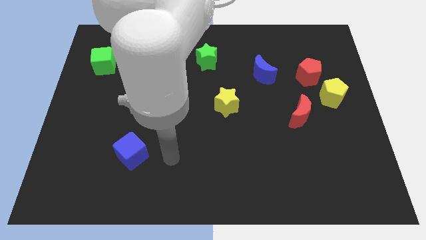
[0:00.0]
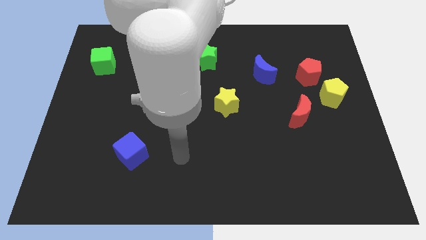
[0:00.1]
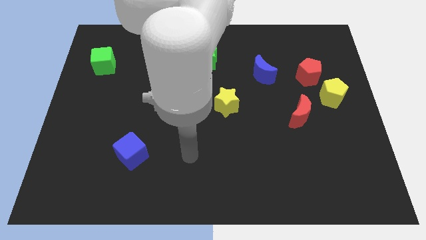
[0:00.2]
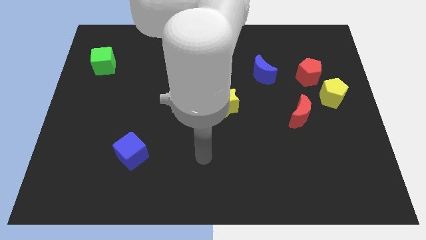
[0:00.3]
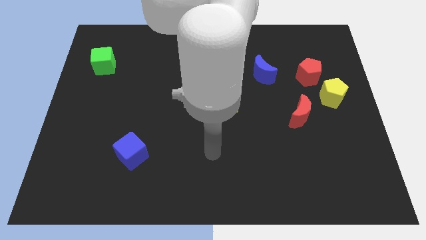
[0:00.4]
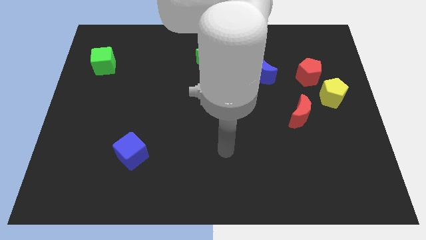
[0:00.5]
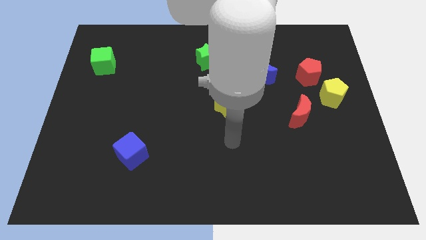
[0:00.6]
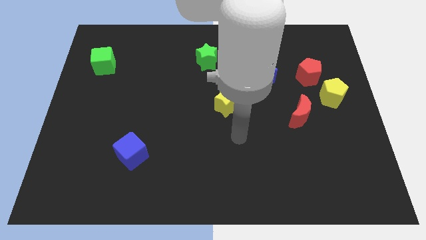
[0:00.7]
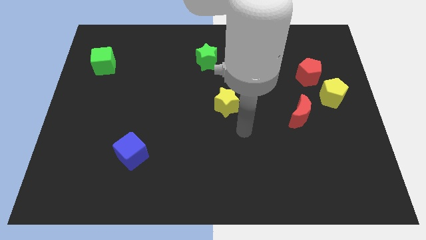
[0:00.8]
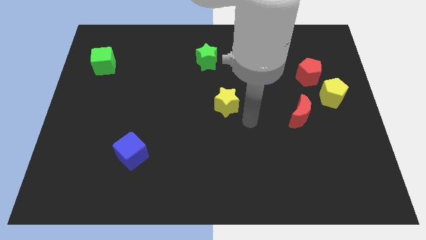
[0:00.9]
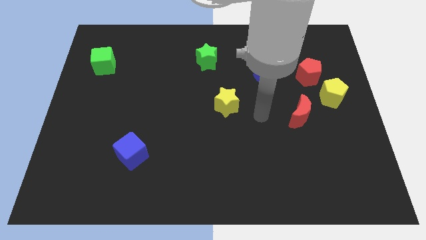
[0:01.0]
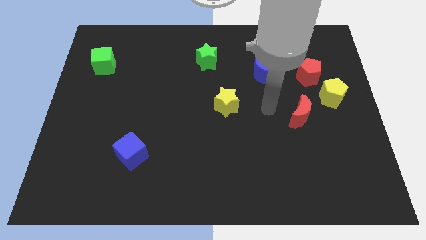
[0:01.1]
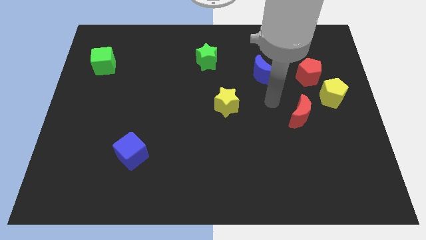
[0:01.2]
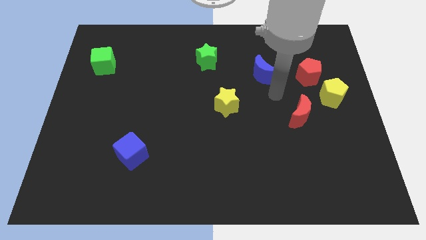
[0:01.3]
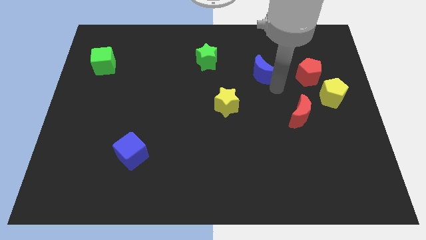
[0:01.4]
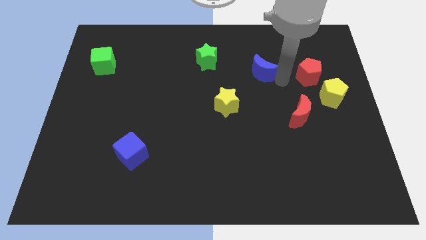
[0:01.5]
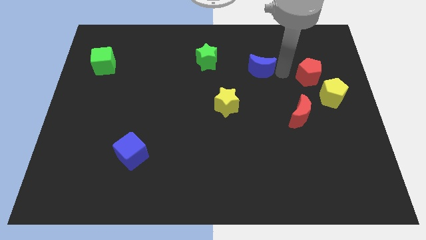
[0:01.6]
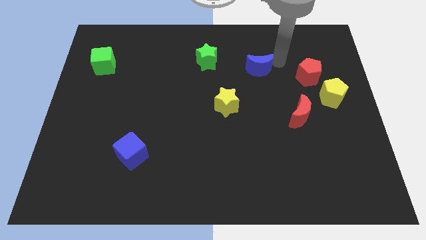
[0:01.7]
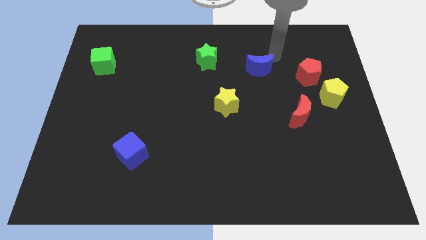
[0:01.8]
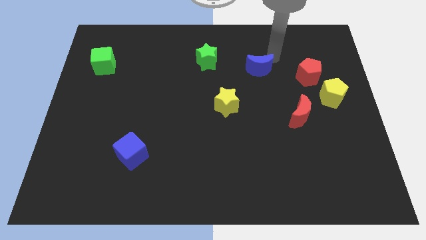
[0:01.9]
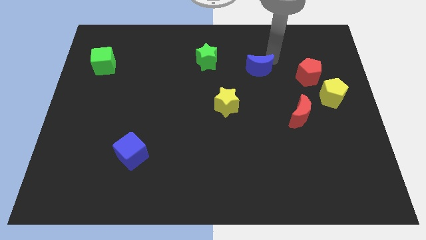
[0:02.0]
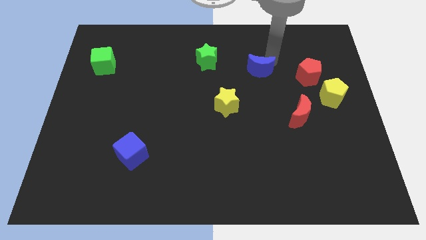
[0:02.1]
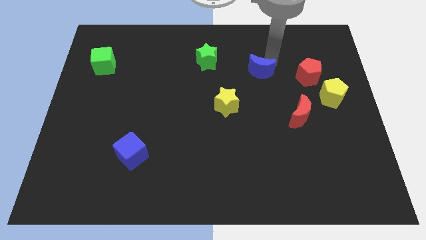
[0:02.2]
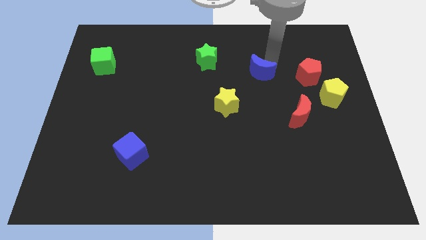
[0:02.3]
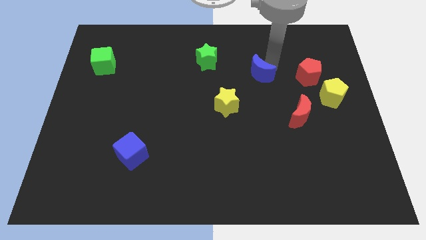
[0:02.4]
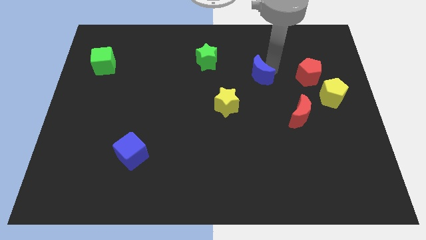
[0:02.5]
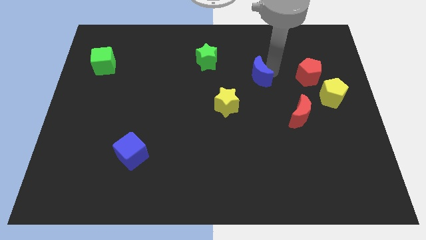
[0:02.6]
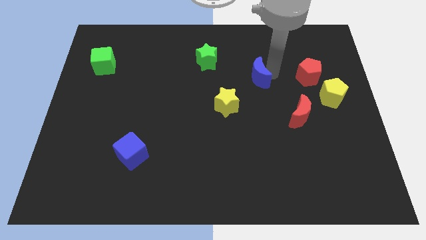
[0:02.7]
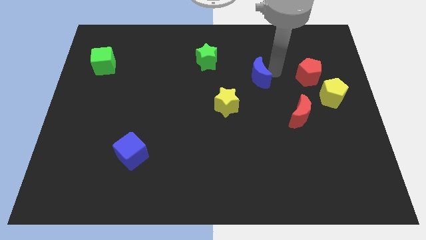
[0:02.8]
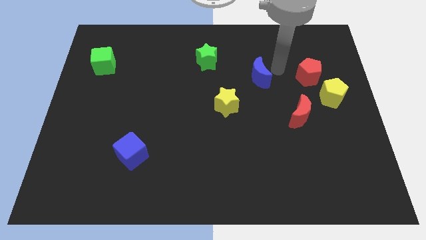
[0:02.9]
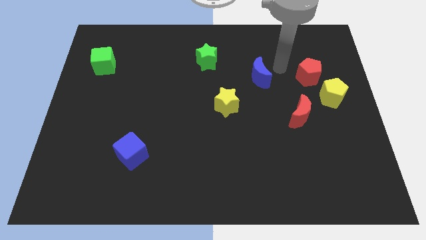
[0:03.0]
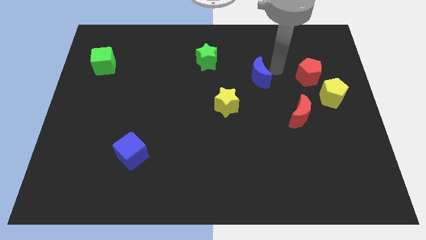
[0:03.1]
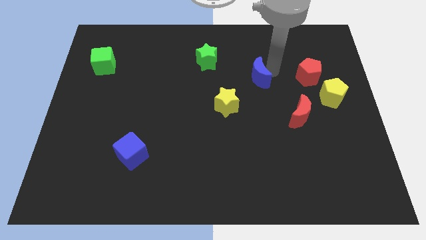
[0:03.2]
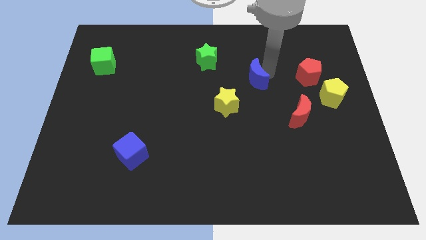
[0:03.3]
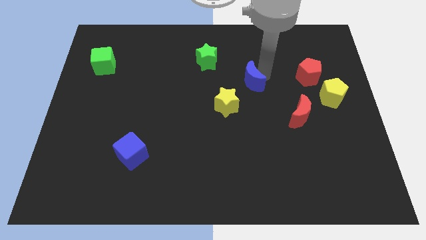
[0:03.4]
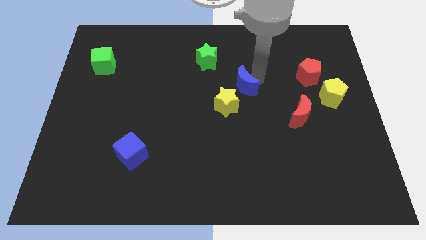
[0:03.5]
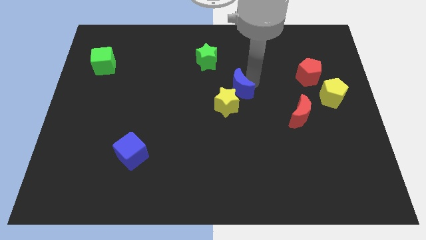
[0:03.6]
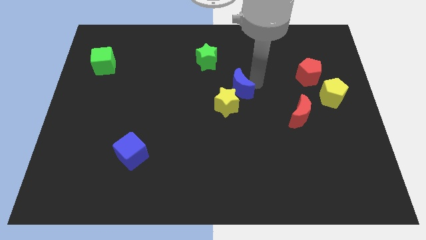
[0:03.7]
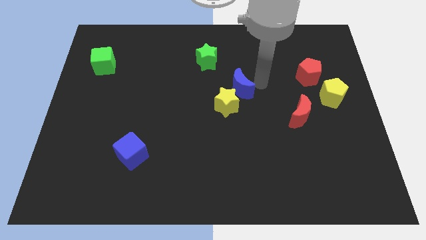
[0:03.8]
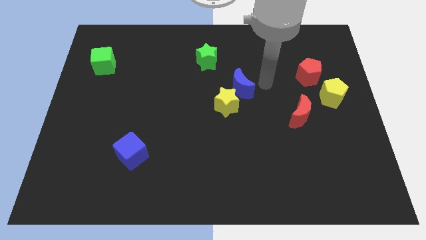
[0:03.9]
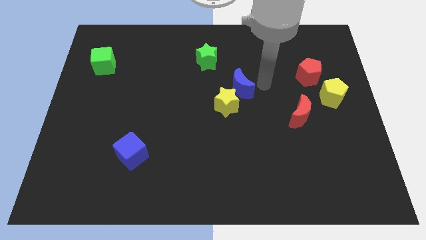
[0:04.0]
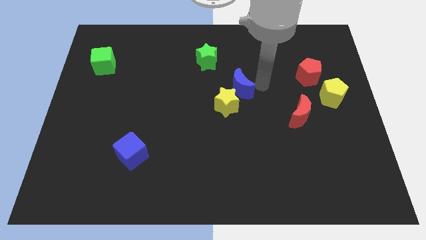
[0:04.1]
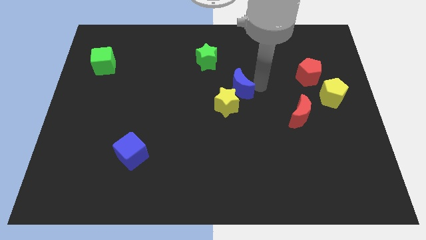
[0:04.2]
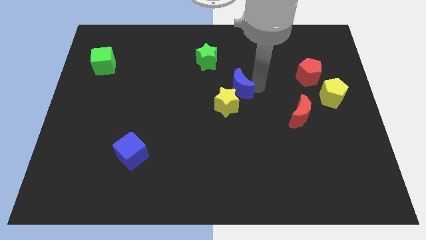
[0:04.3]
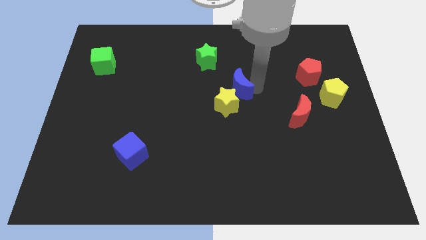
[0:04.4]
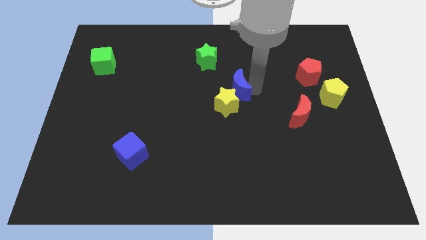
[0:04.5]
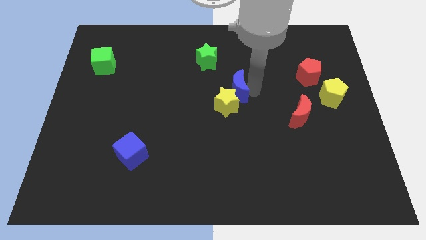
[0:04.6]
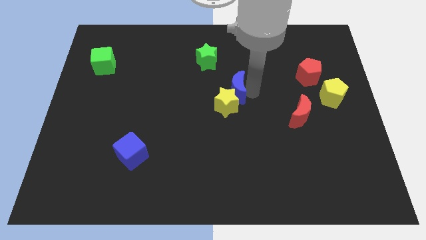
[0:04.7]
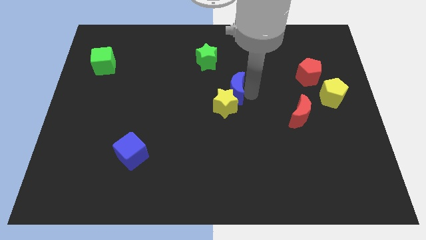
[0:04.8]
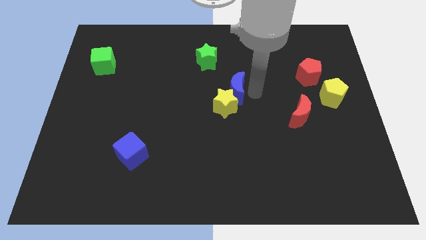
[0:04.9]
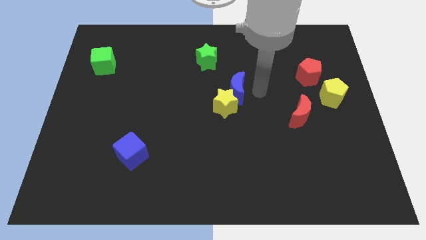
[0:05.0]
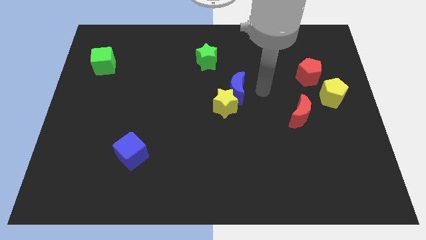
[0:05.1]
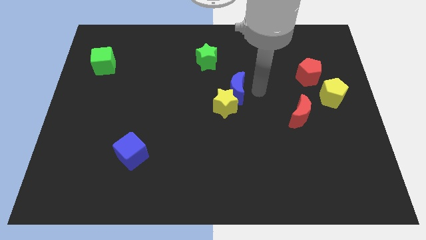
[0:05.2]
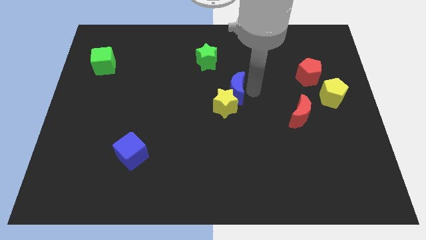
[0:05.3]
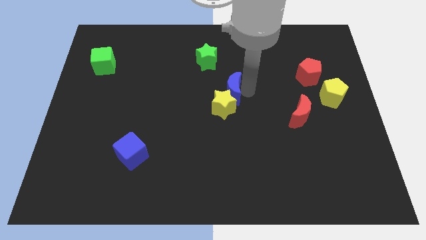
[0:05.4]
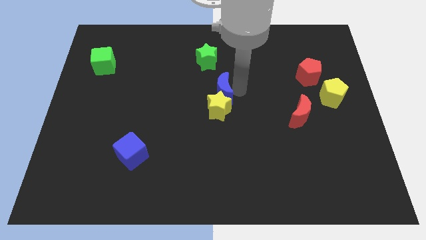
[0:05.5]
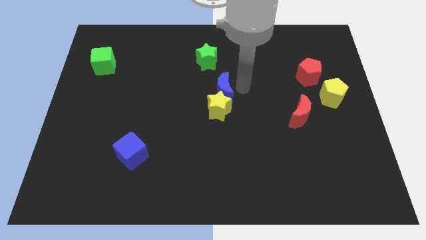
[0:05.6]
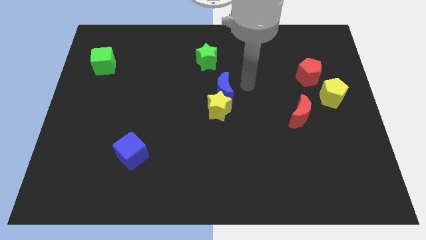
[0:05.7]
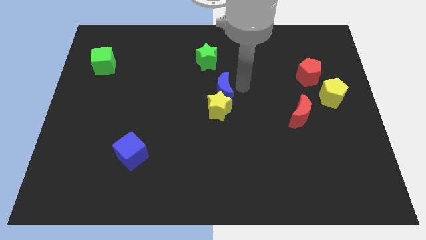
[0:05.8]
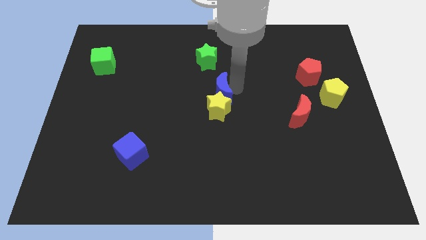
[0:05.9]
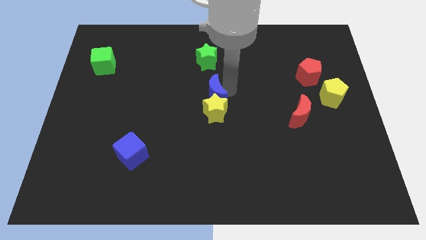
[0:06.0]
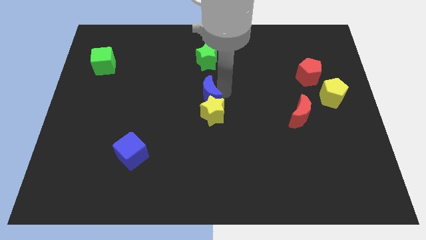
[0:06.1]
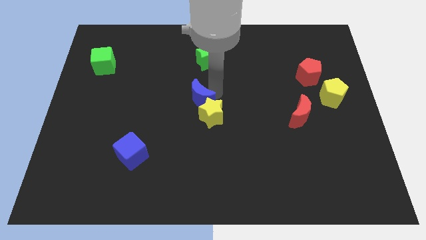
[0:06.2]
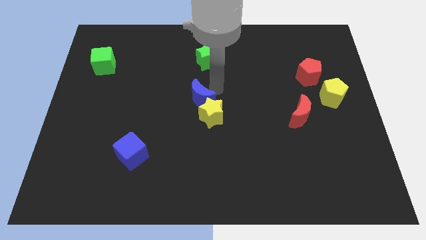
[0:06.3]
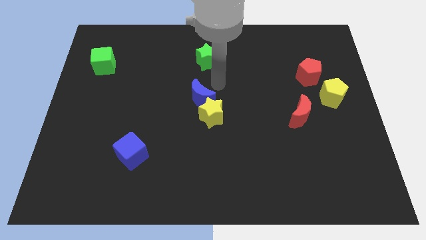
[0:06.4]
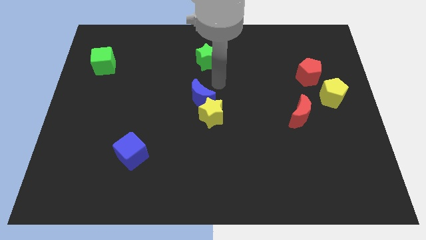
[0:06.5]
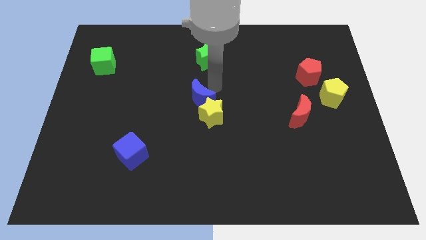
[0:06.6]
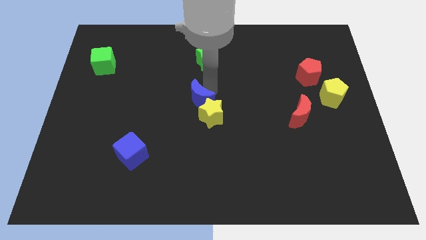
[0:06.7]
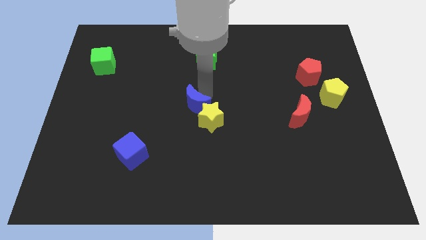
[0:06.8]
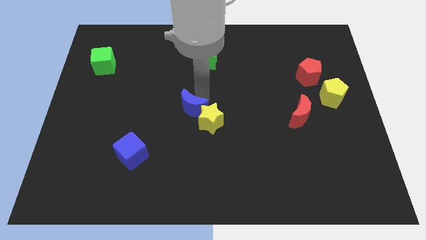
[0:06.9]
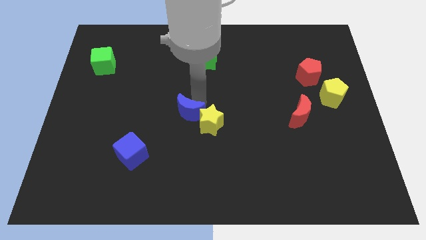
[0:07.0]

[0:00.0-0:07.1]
push the blue moon downwards and left

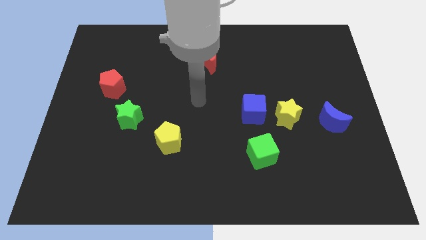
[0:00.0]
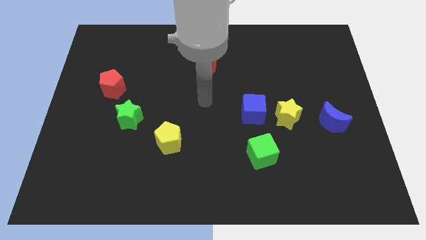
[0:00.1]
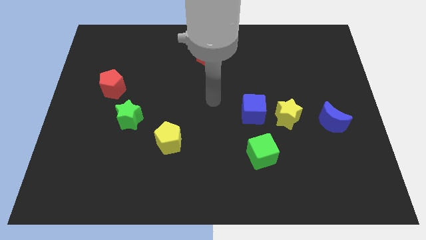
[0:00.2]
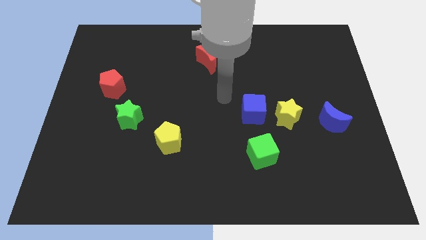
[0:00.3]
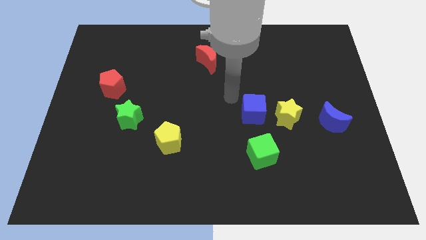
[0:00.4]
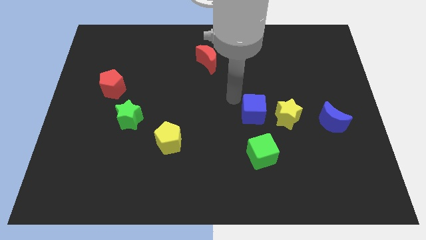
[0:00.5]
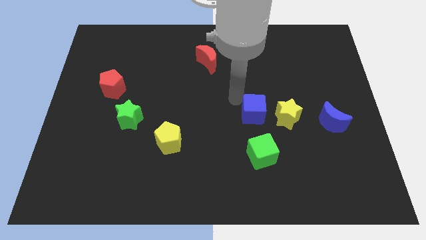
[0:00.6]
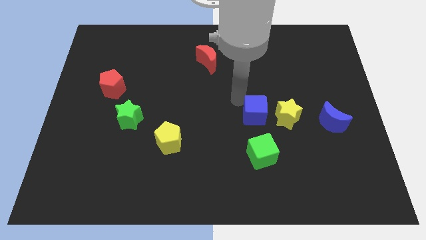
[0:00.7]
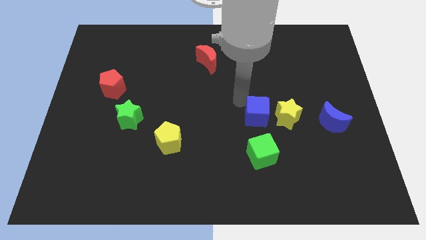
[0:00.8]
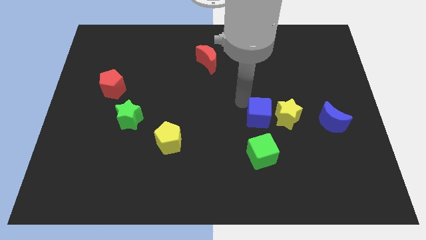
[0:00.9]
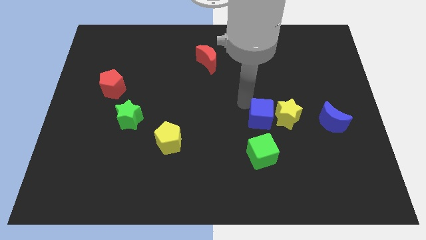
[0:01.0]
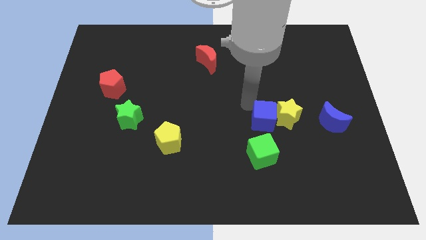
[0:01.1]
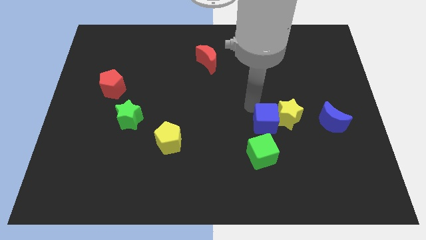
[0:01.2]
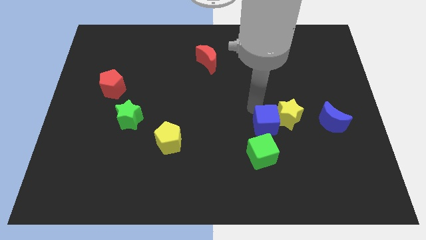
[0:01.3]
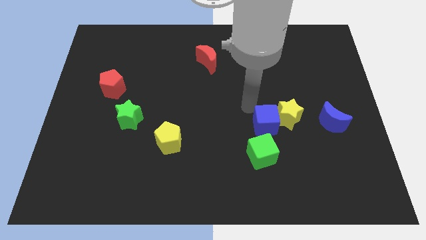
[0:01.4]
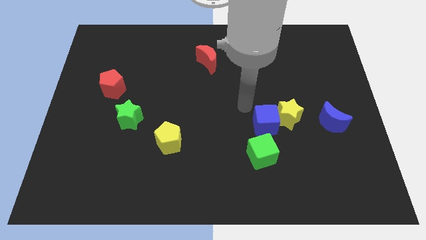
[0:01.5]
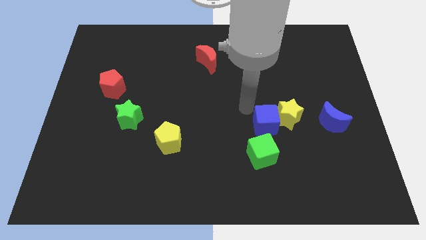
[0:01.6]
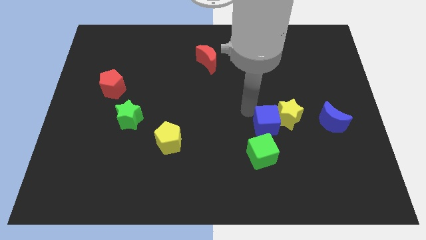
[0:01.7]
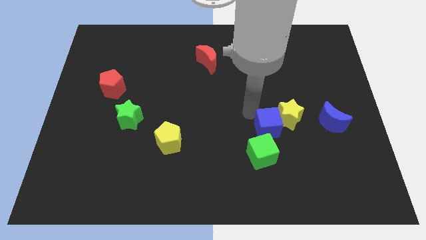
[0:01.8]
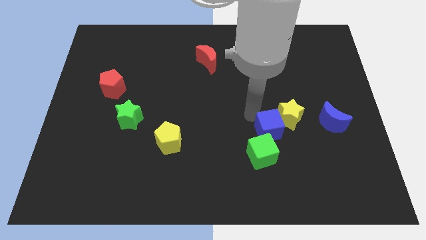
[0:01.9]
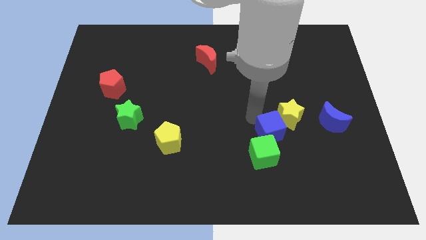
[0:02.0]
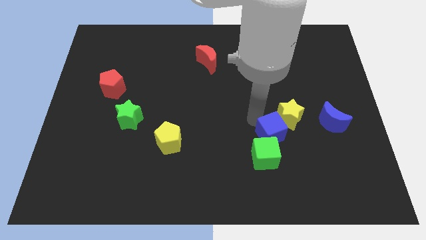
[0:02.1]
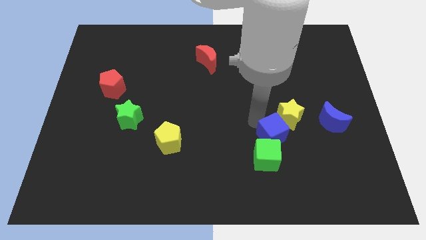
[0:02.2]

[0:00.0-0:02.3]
slide the blue cube diagonally downwards and right somewhat
